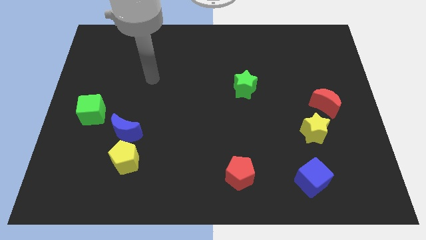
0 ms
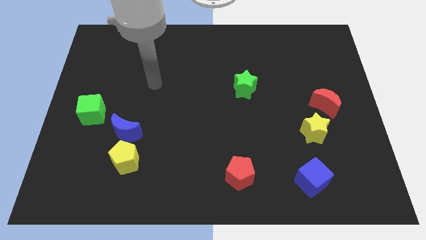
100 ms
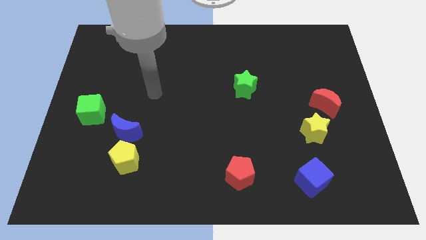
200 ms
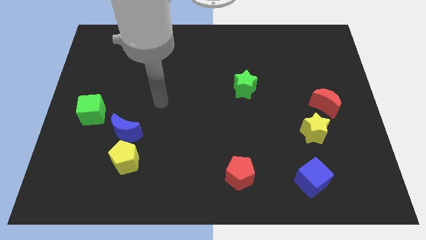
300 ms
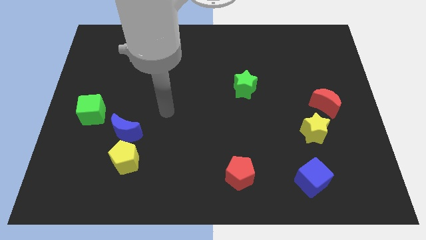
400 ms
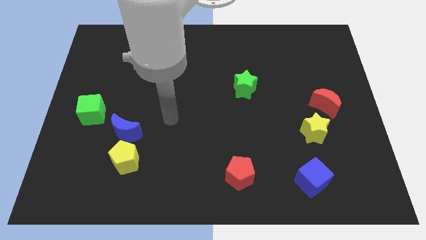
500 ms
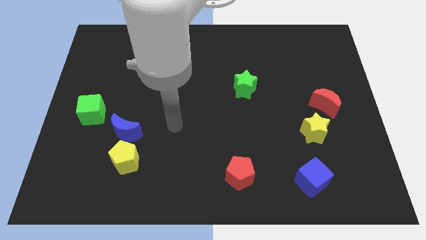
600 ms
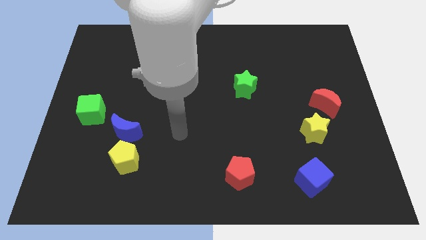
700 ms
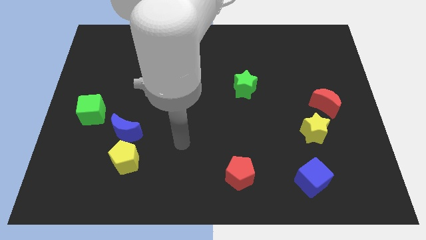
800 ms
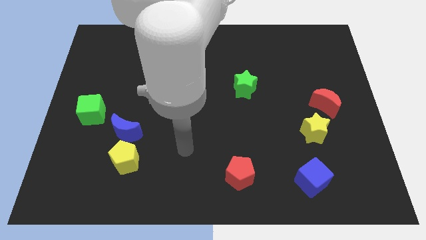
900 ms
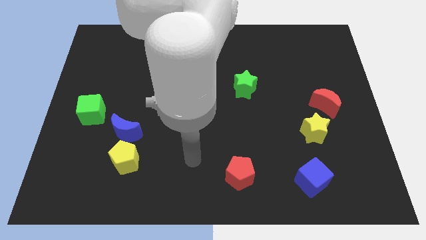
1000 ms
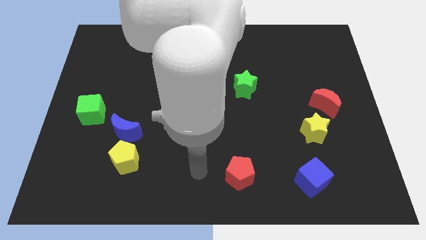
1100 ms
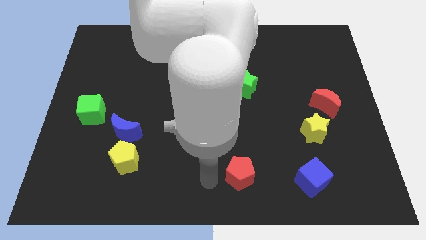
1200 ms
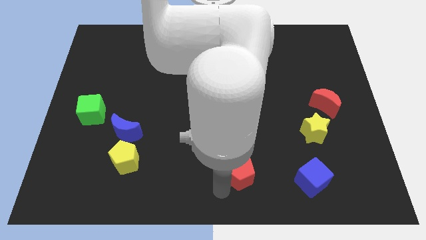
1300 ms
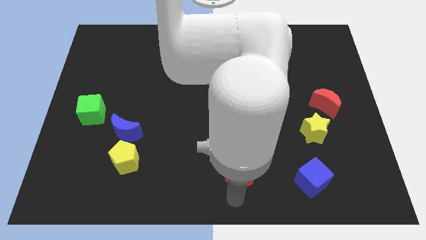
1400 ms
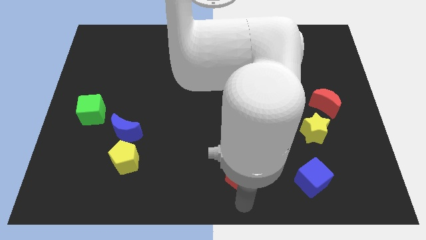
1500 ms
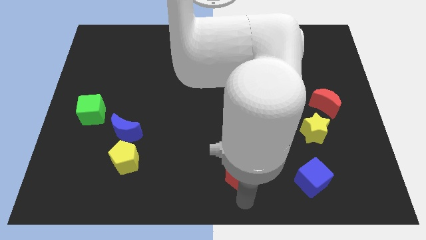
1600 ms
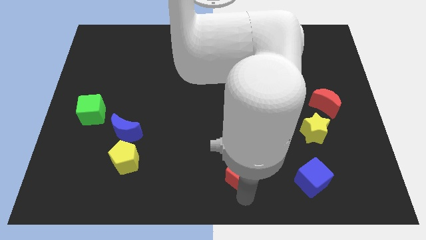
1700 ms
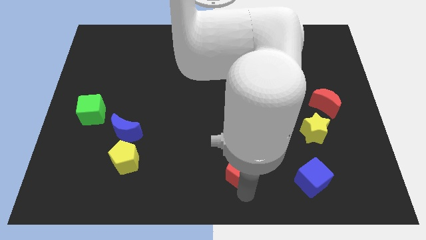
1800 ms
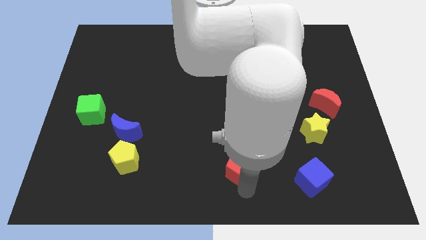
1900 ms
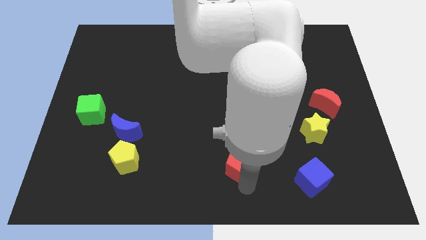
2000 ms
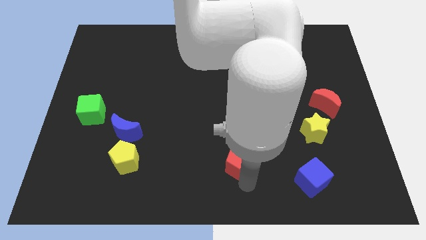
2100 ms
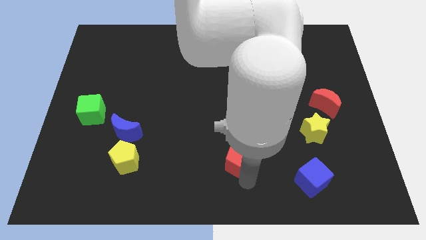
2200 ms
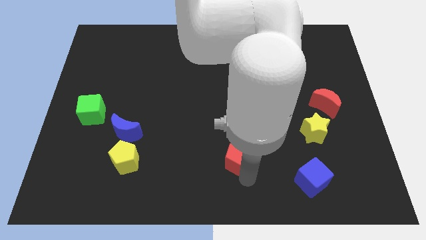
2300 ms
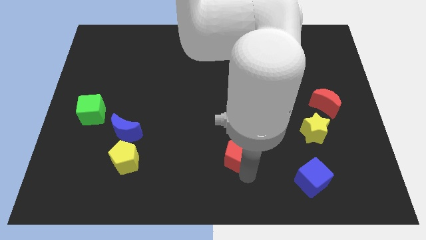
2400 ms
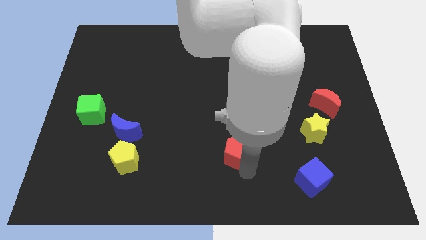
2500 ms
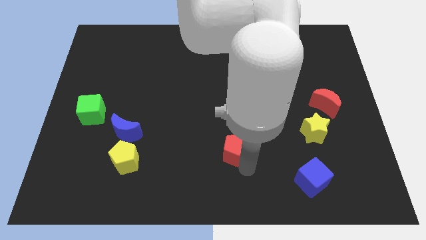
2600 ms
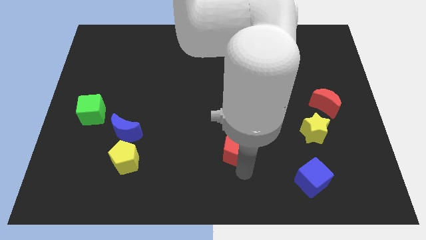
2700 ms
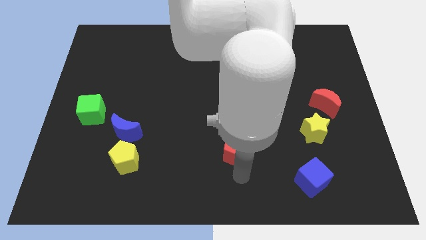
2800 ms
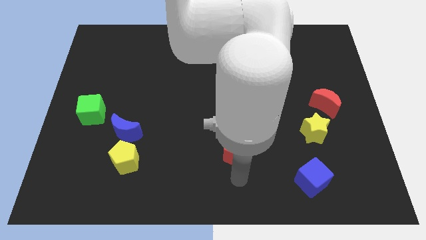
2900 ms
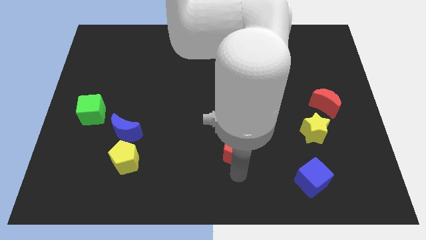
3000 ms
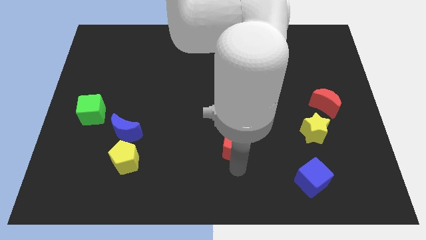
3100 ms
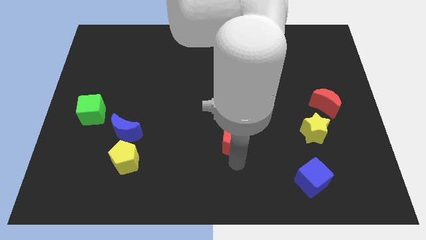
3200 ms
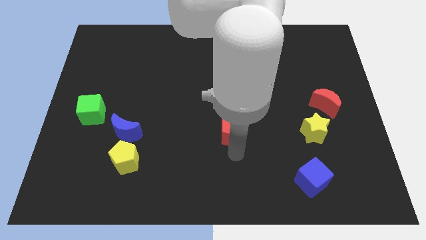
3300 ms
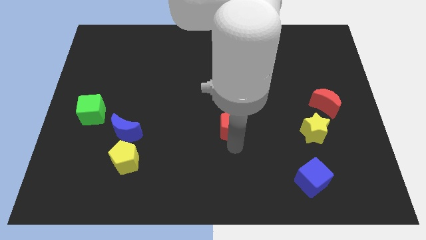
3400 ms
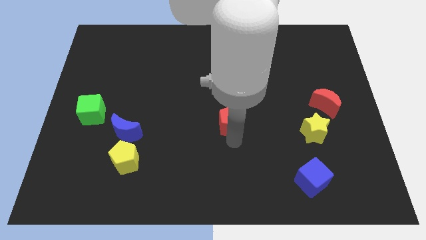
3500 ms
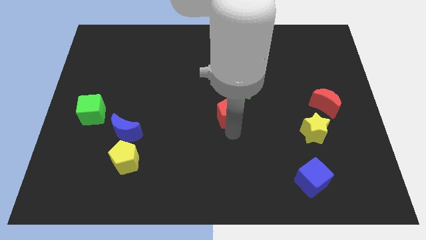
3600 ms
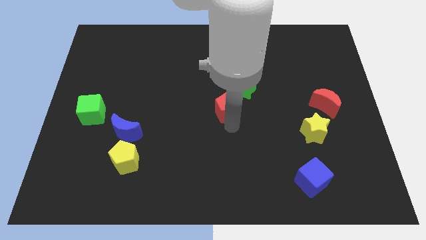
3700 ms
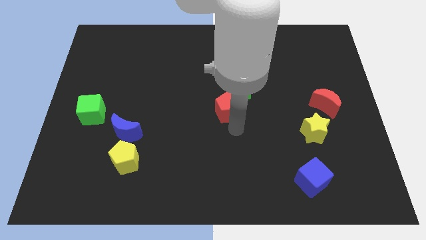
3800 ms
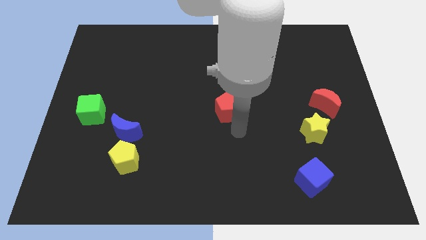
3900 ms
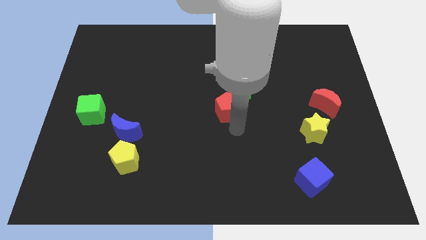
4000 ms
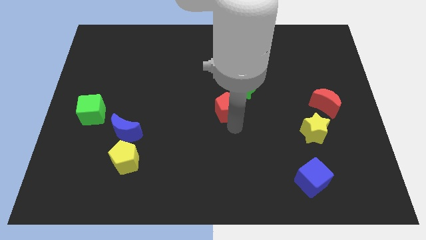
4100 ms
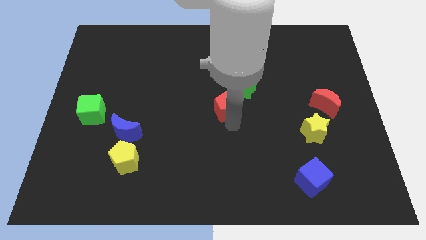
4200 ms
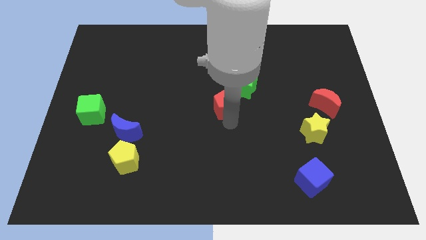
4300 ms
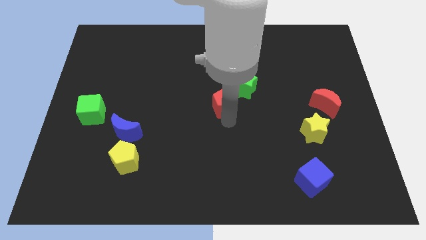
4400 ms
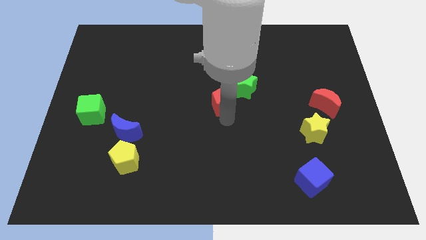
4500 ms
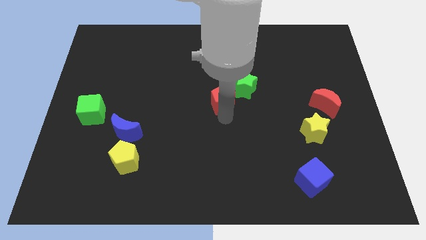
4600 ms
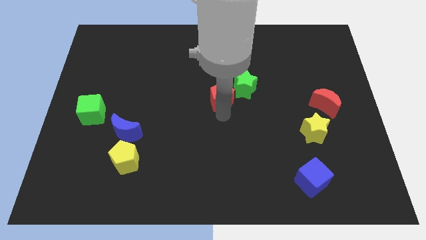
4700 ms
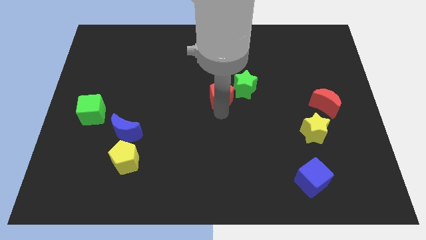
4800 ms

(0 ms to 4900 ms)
slide the red pentagon upwards

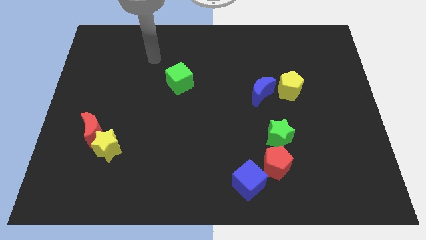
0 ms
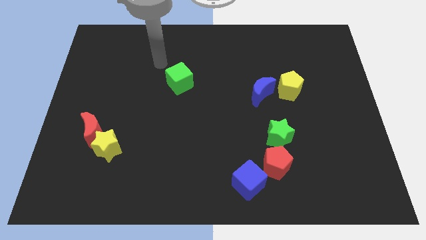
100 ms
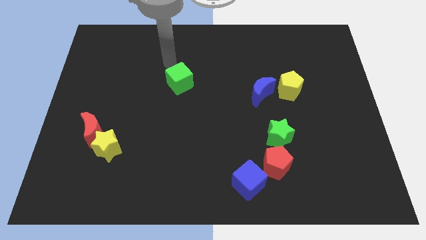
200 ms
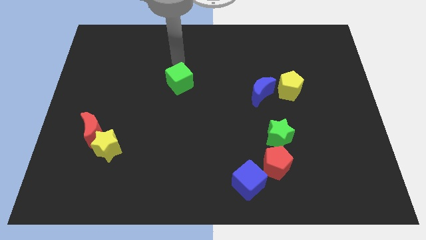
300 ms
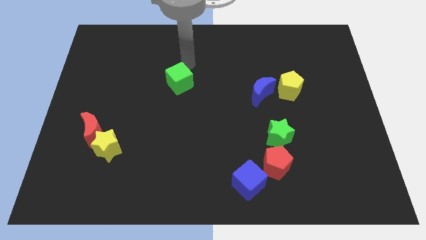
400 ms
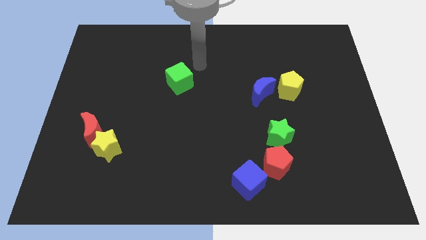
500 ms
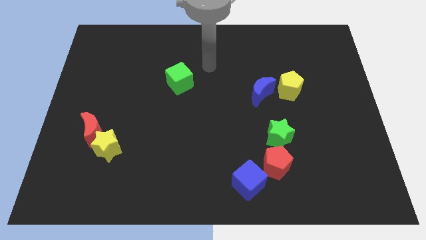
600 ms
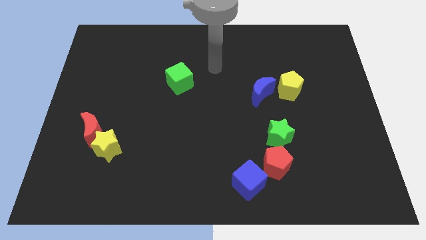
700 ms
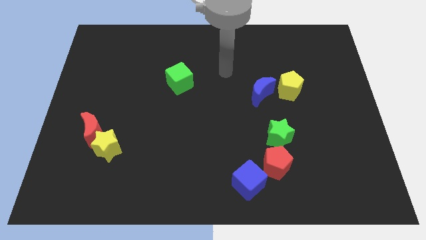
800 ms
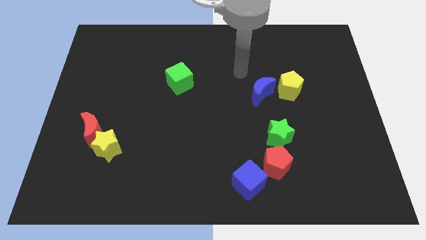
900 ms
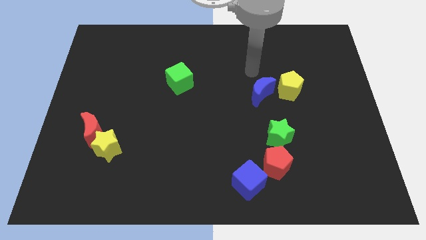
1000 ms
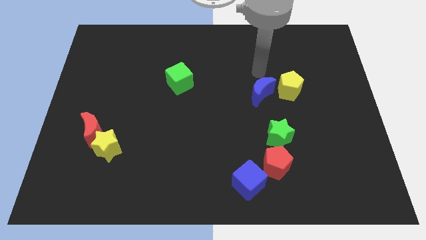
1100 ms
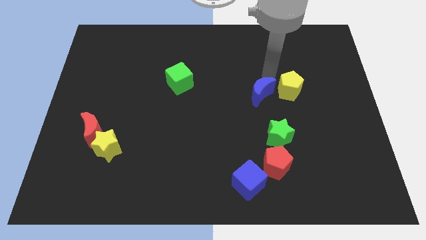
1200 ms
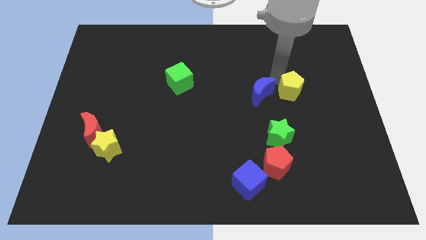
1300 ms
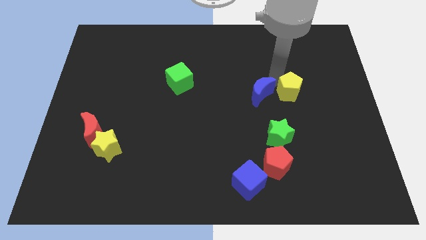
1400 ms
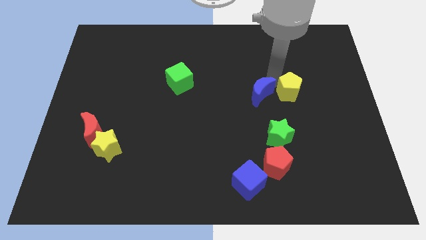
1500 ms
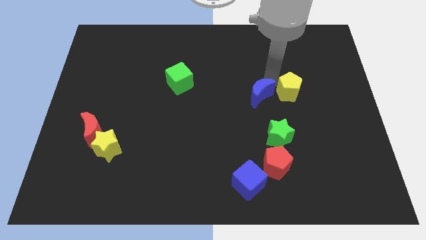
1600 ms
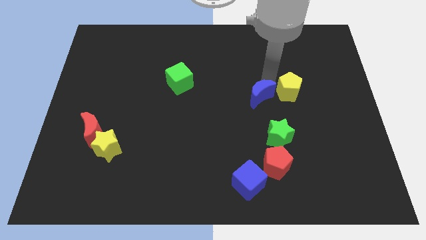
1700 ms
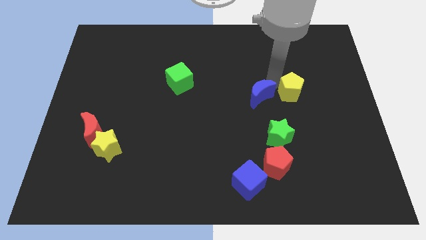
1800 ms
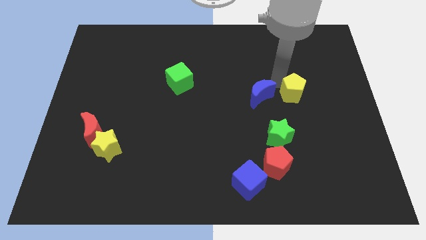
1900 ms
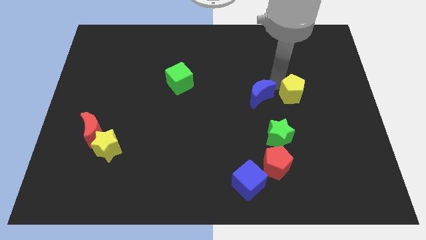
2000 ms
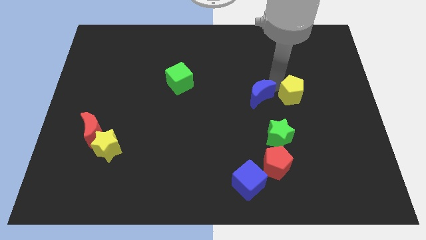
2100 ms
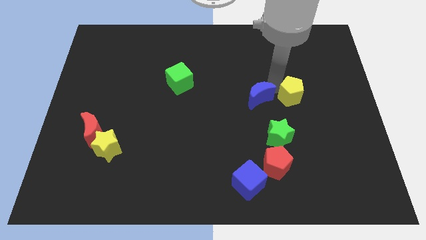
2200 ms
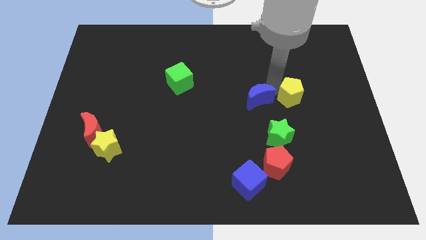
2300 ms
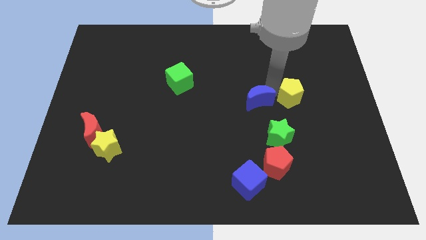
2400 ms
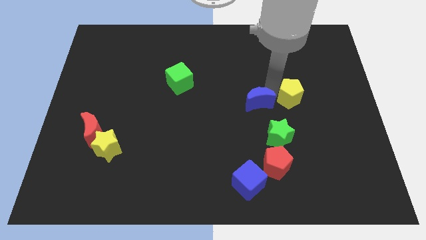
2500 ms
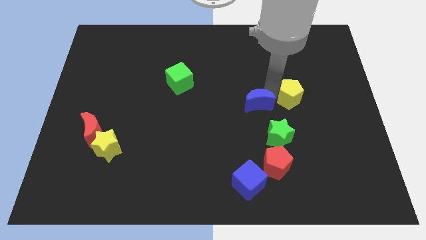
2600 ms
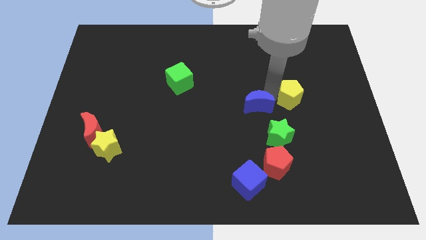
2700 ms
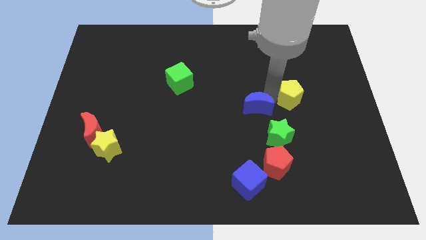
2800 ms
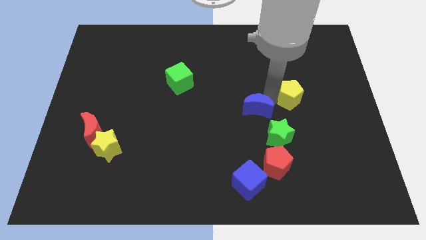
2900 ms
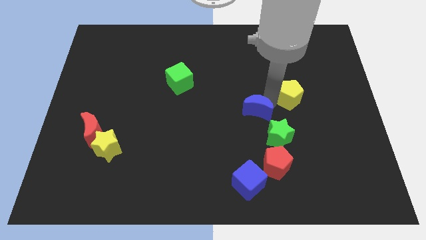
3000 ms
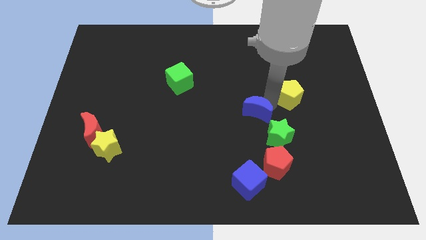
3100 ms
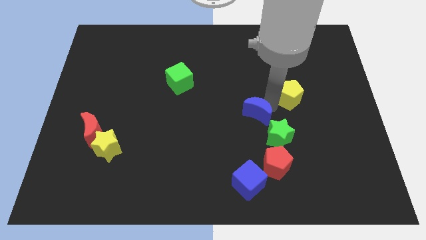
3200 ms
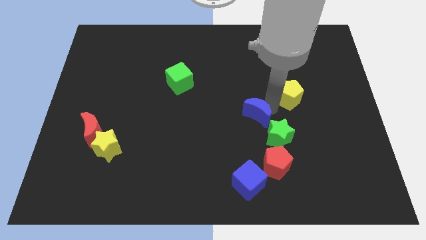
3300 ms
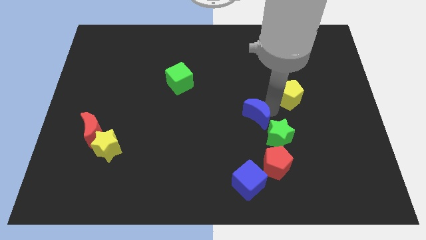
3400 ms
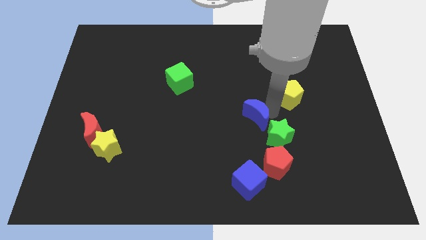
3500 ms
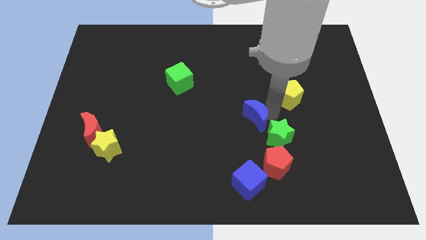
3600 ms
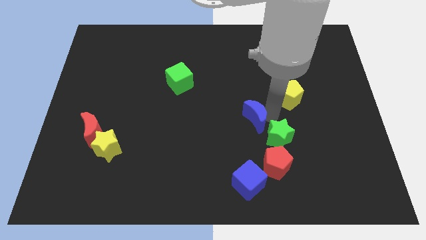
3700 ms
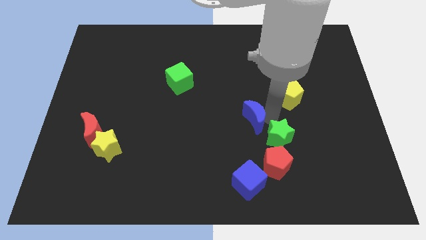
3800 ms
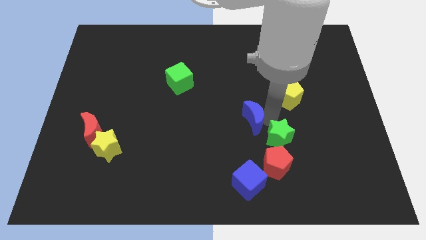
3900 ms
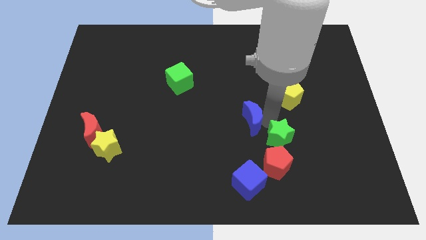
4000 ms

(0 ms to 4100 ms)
move the blue moon downwards and left a little
